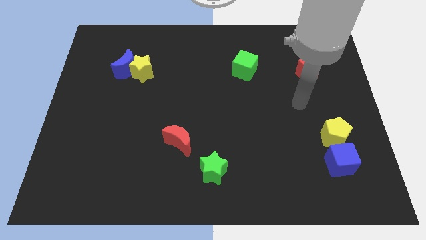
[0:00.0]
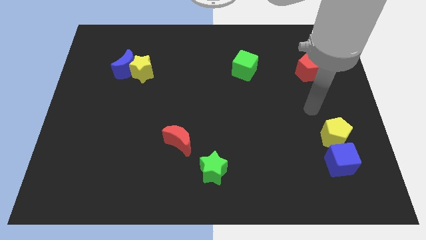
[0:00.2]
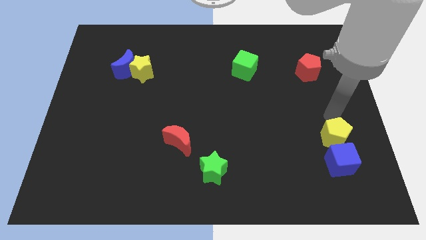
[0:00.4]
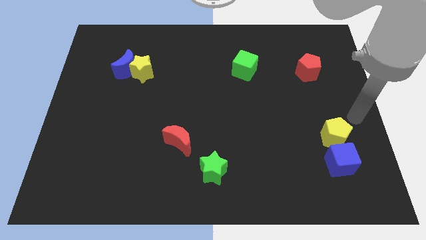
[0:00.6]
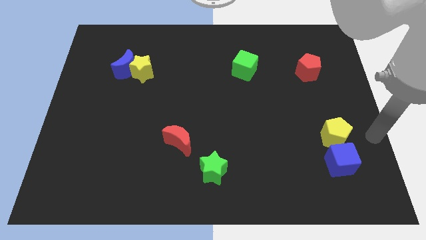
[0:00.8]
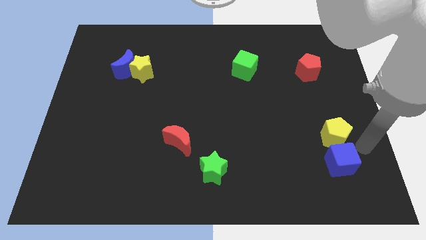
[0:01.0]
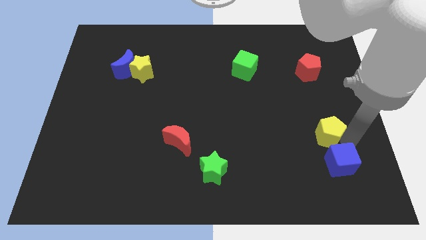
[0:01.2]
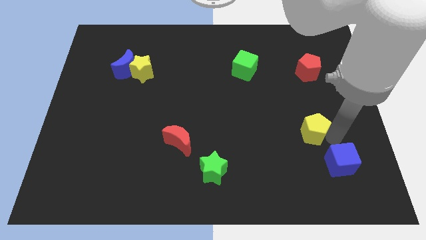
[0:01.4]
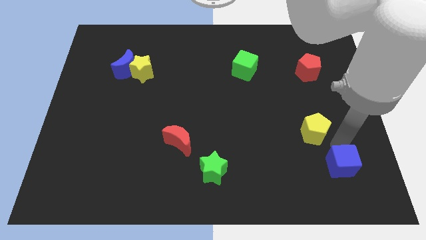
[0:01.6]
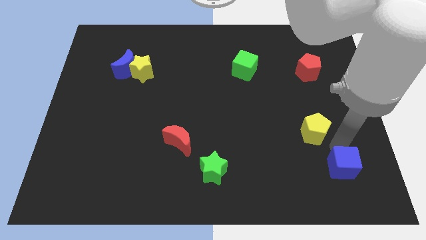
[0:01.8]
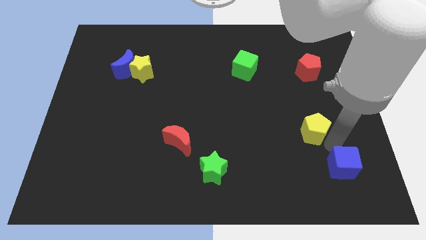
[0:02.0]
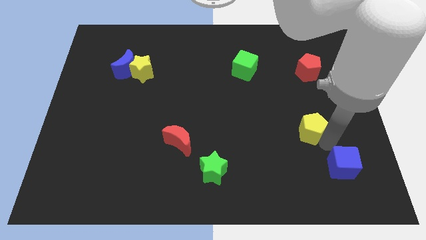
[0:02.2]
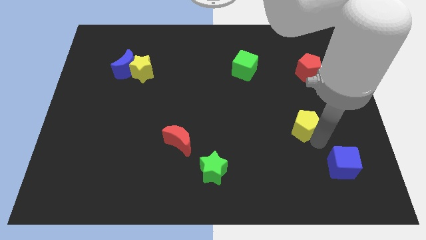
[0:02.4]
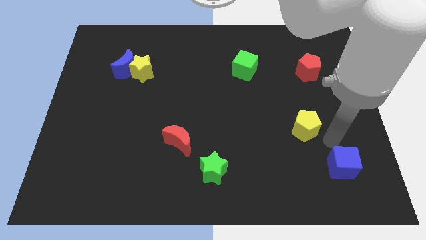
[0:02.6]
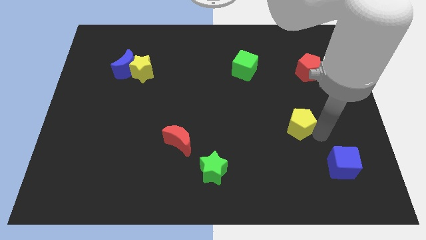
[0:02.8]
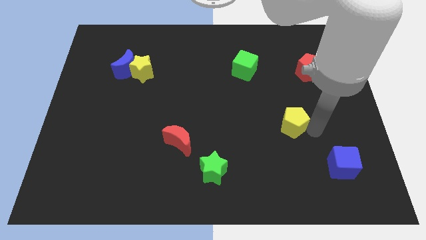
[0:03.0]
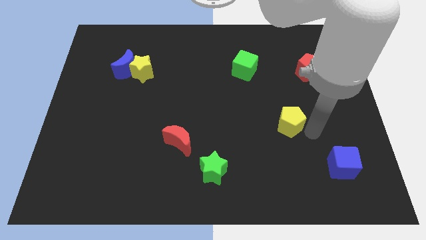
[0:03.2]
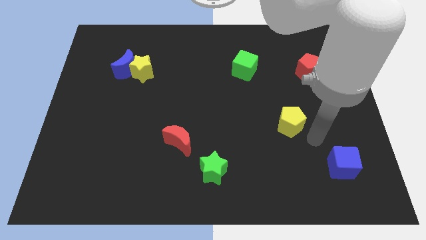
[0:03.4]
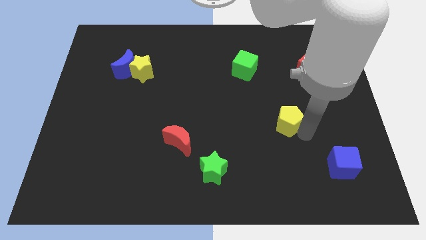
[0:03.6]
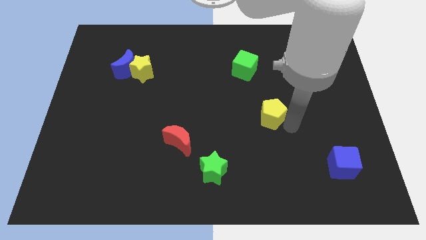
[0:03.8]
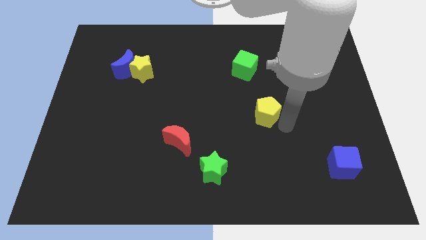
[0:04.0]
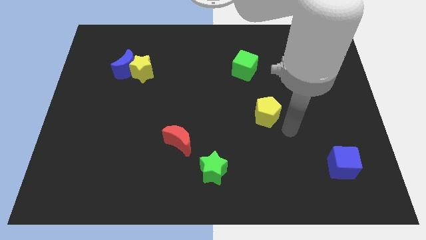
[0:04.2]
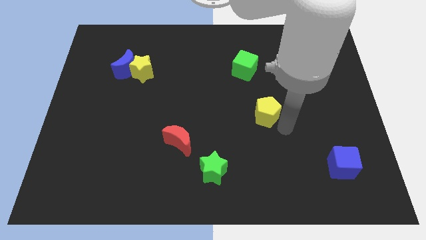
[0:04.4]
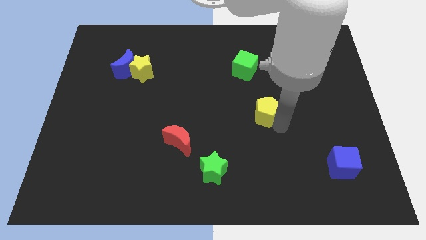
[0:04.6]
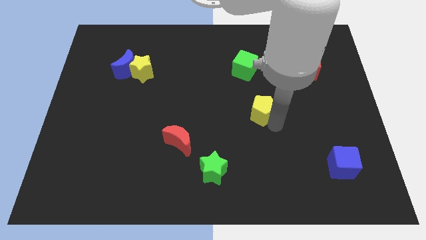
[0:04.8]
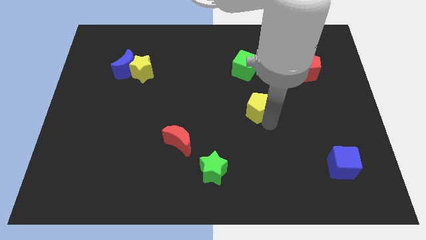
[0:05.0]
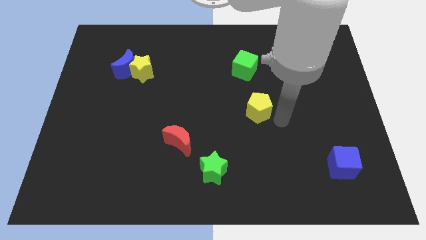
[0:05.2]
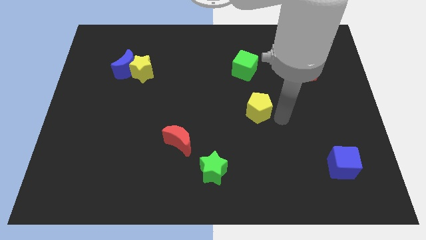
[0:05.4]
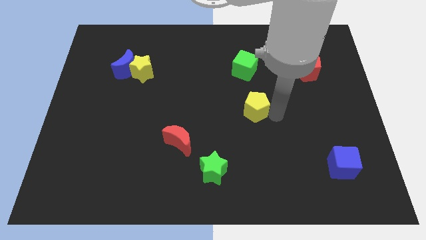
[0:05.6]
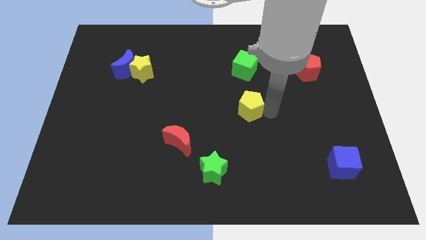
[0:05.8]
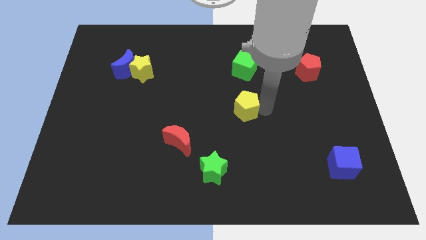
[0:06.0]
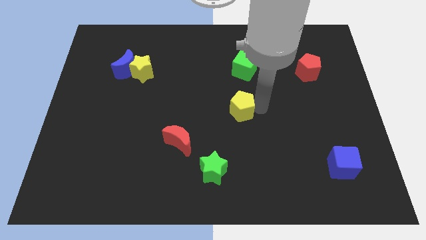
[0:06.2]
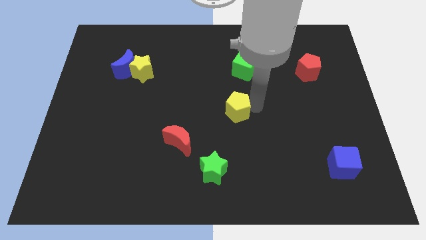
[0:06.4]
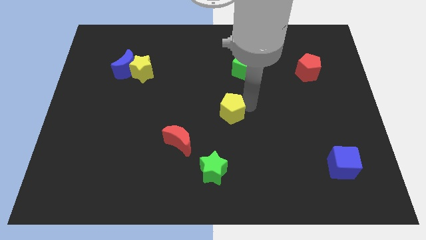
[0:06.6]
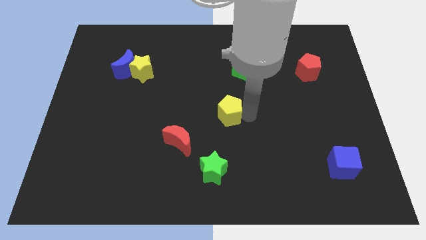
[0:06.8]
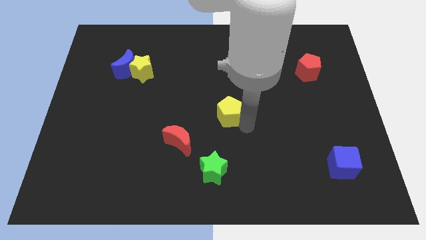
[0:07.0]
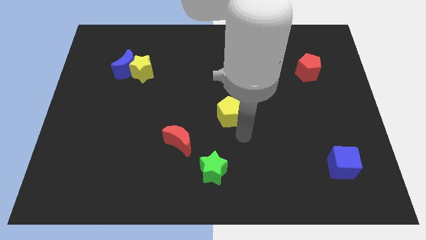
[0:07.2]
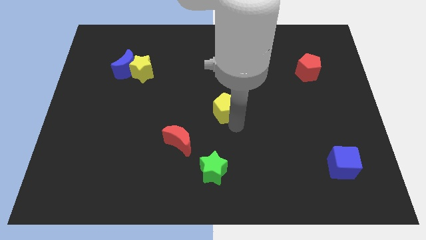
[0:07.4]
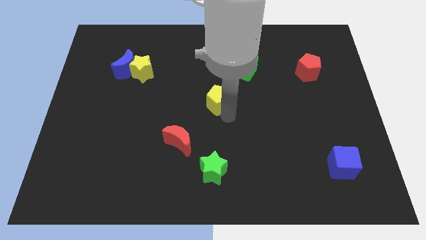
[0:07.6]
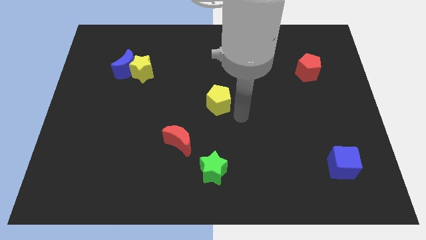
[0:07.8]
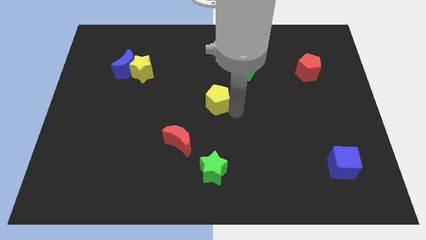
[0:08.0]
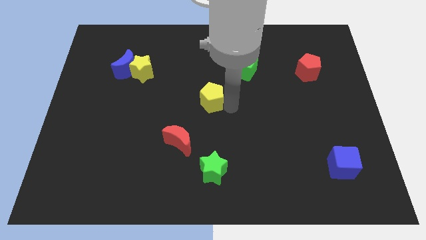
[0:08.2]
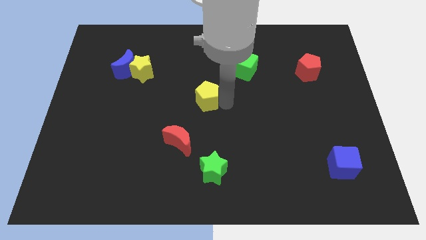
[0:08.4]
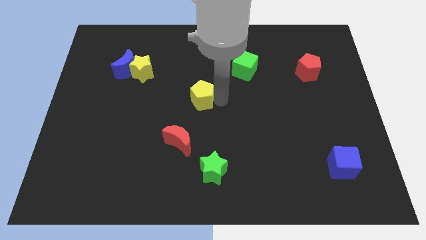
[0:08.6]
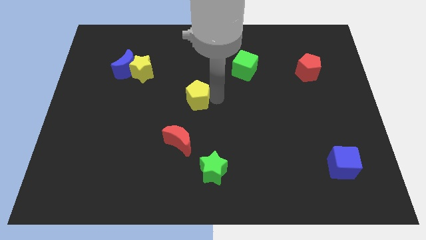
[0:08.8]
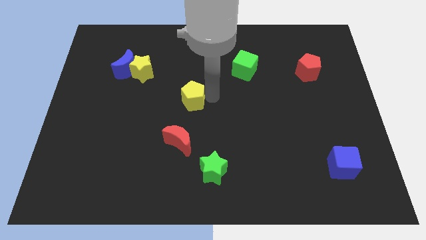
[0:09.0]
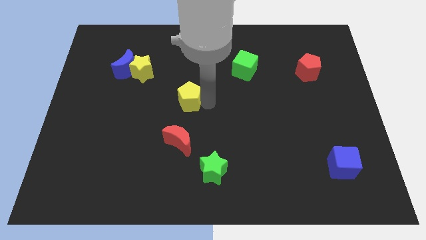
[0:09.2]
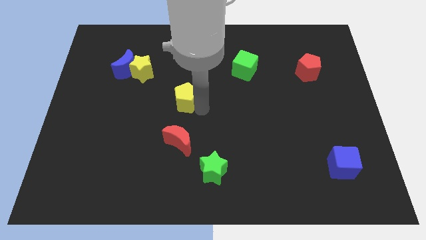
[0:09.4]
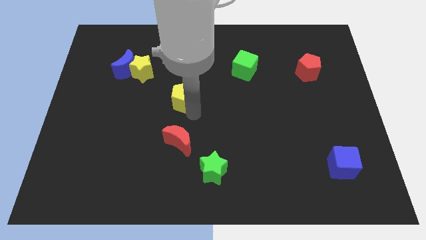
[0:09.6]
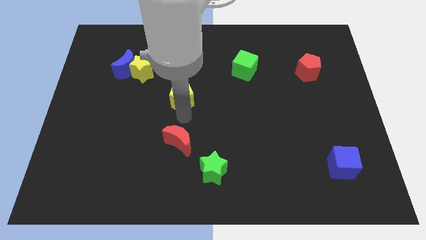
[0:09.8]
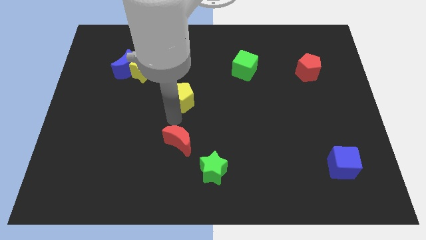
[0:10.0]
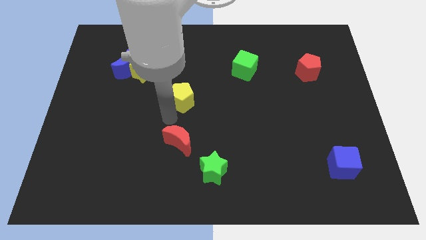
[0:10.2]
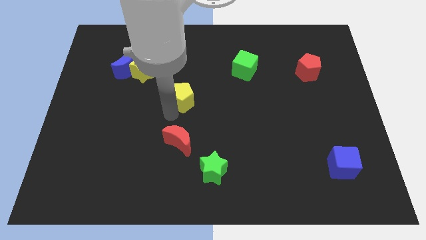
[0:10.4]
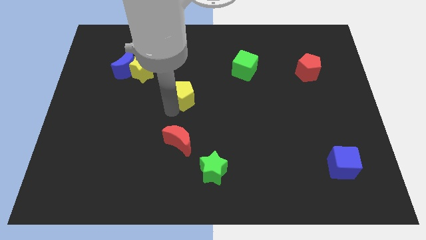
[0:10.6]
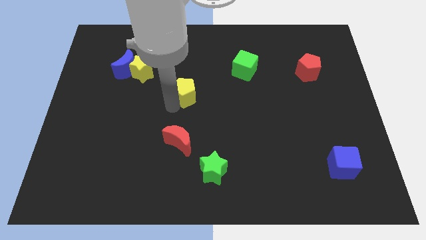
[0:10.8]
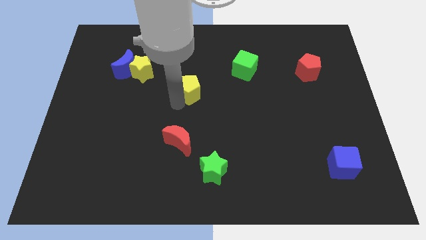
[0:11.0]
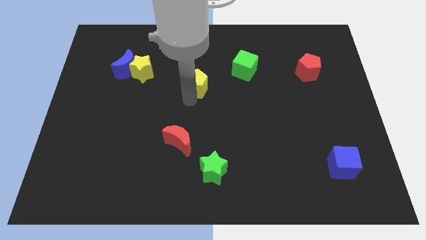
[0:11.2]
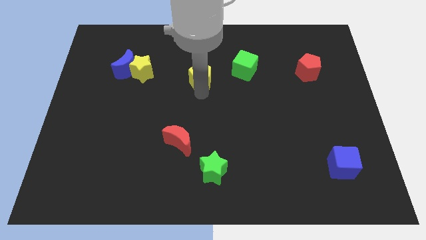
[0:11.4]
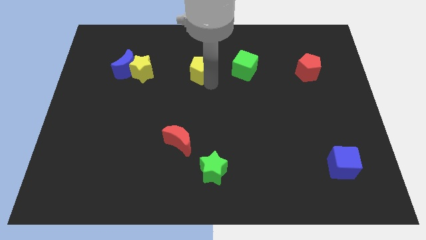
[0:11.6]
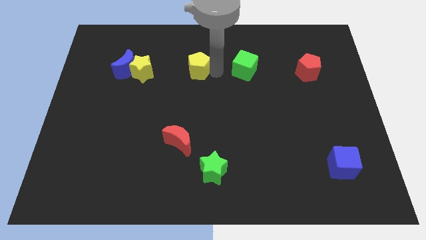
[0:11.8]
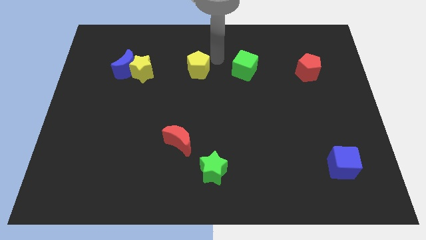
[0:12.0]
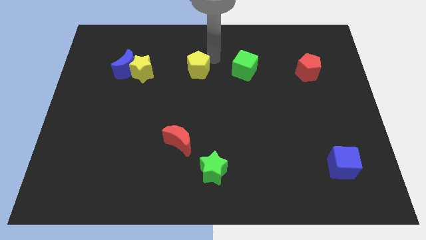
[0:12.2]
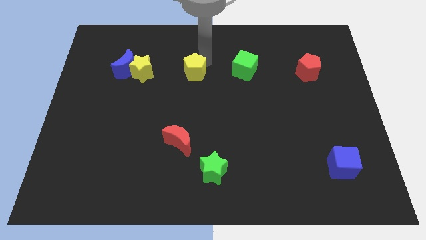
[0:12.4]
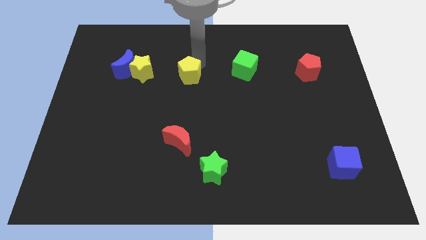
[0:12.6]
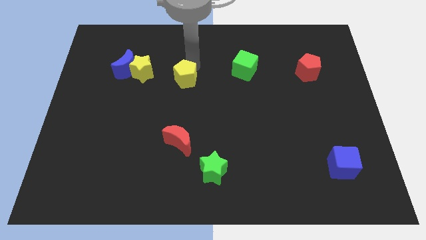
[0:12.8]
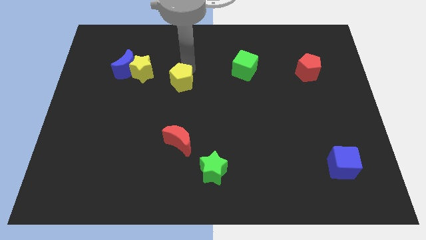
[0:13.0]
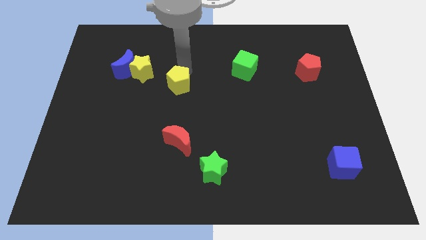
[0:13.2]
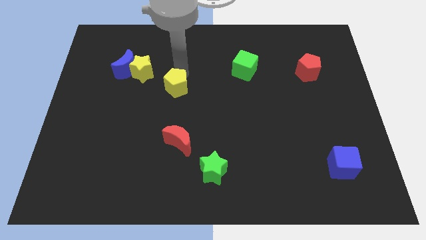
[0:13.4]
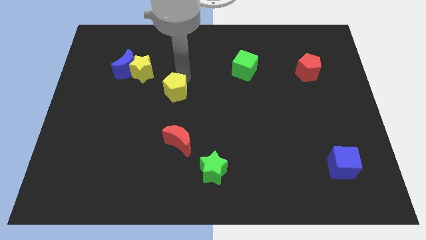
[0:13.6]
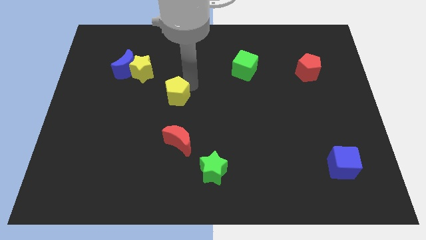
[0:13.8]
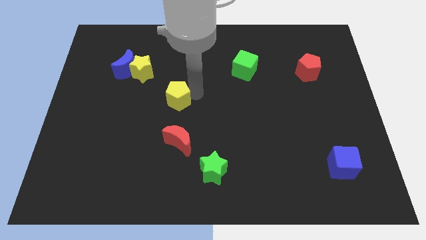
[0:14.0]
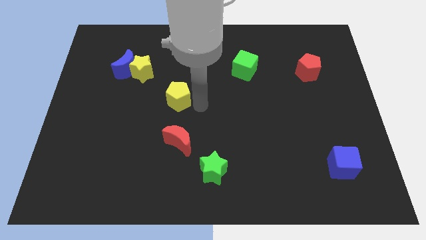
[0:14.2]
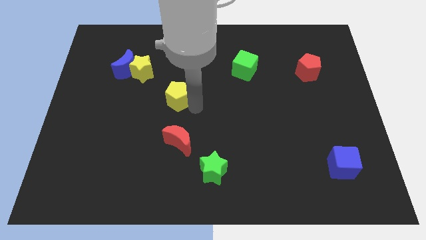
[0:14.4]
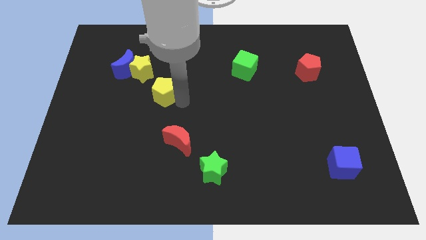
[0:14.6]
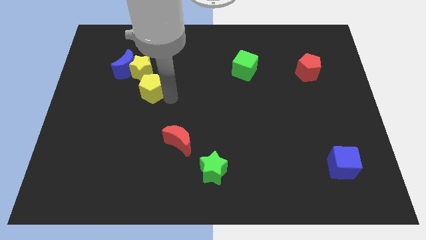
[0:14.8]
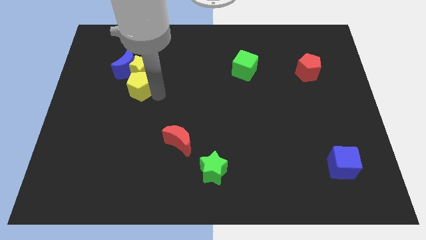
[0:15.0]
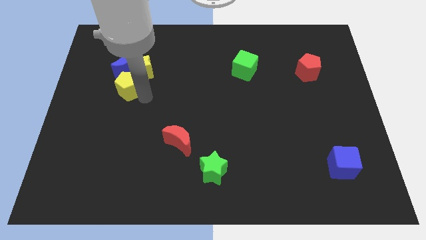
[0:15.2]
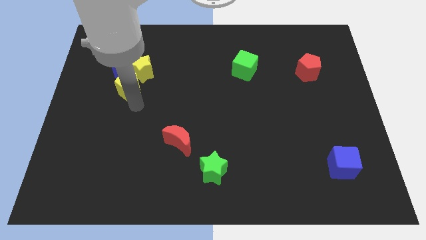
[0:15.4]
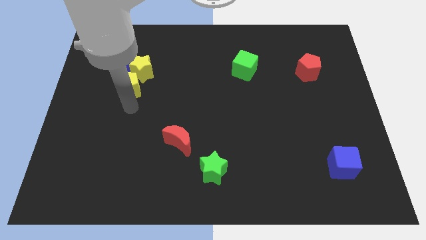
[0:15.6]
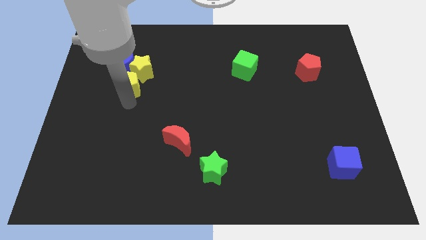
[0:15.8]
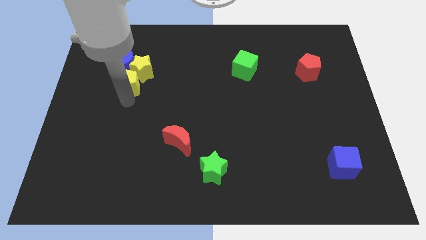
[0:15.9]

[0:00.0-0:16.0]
push the yellow pentagon to the blue moon
